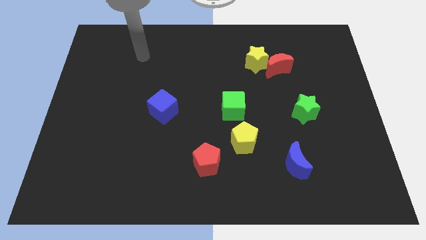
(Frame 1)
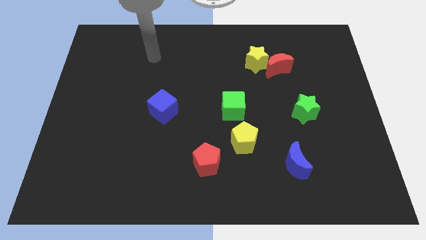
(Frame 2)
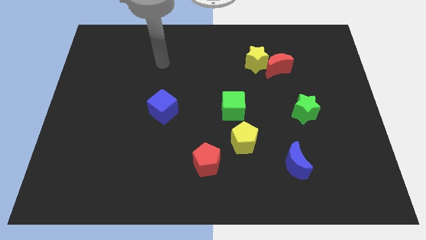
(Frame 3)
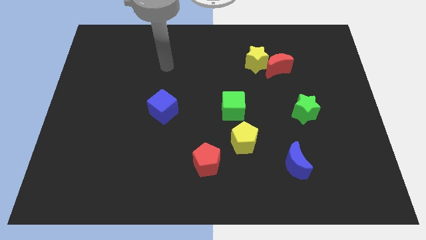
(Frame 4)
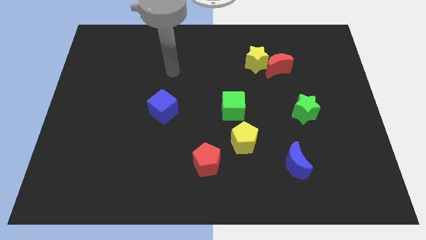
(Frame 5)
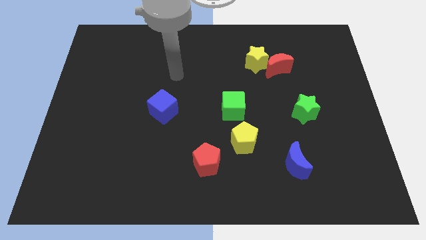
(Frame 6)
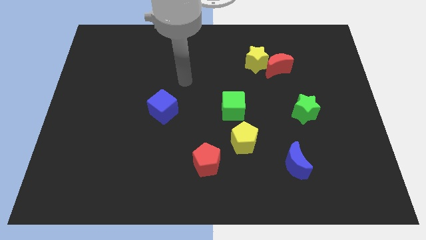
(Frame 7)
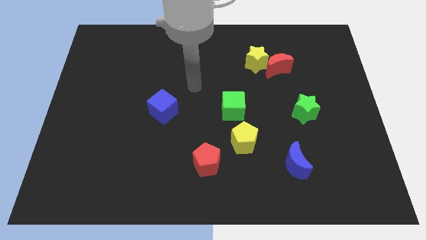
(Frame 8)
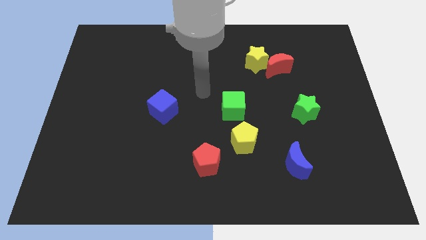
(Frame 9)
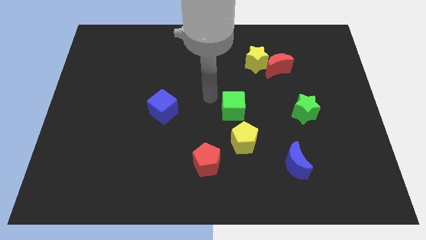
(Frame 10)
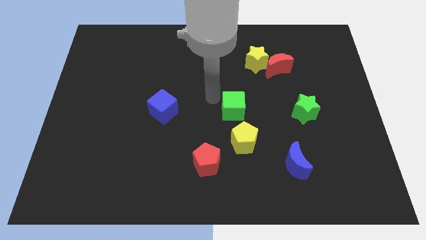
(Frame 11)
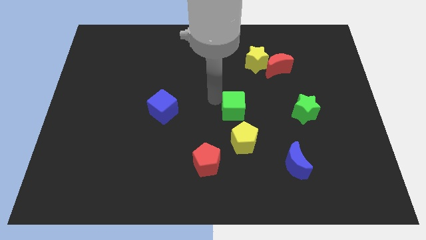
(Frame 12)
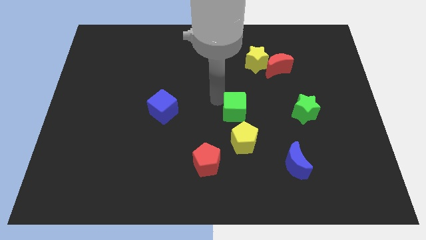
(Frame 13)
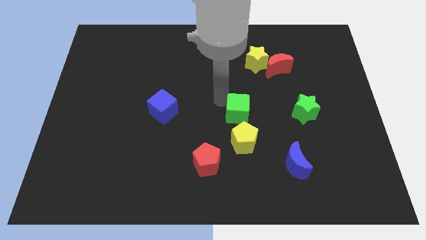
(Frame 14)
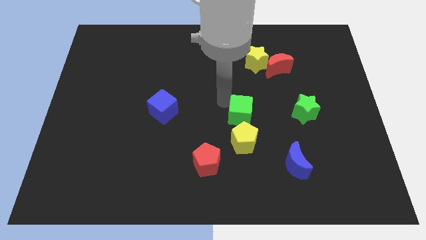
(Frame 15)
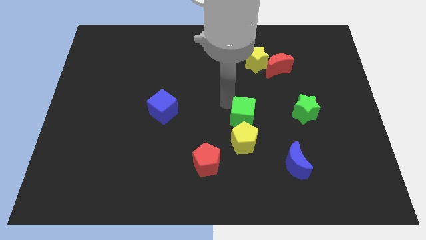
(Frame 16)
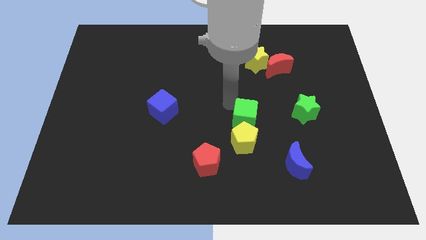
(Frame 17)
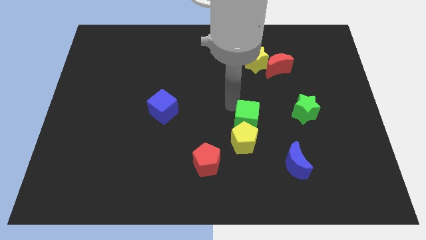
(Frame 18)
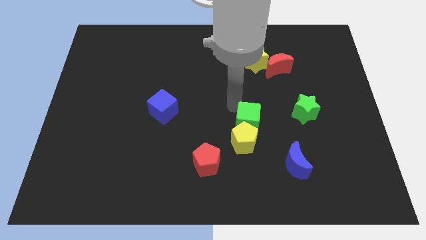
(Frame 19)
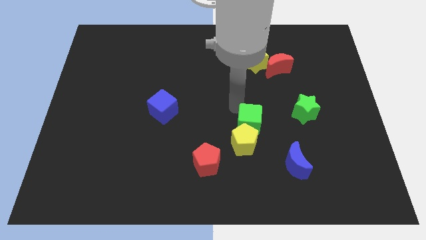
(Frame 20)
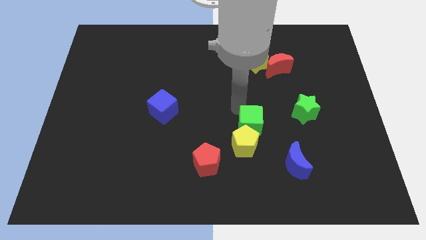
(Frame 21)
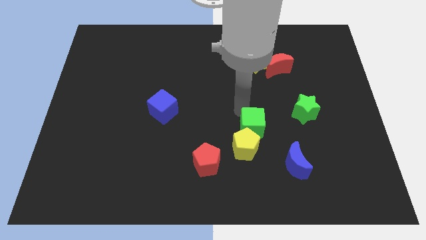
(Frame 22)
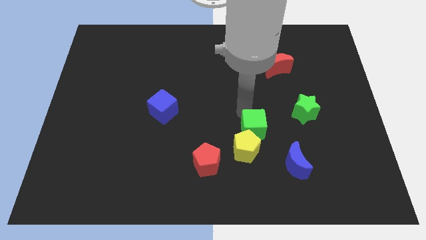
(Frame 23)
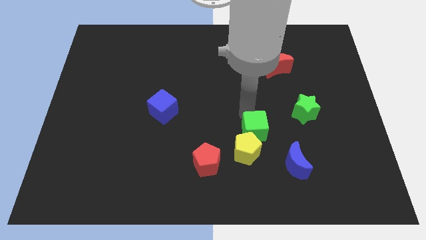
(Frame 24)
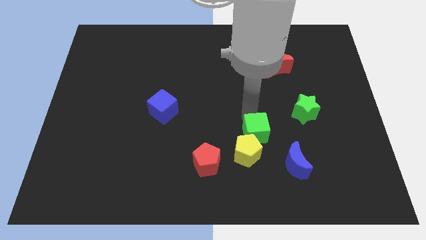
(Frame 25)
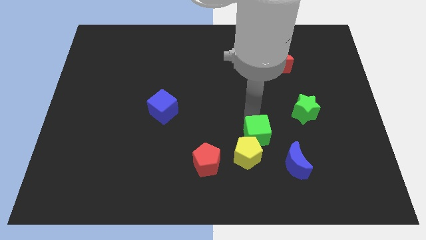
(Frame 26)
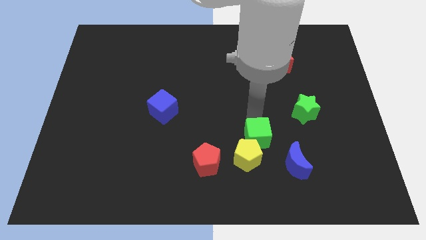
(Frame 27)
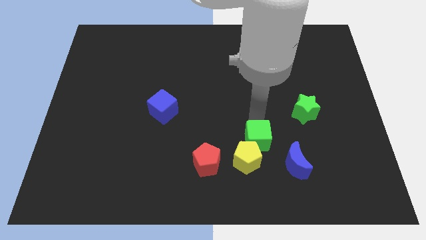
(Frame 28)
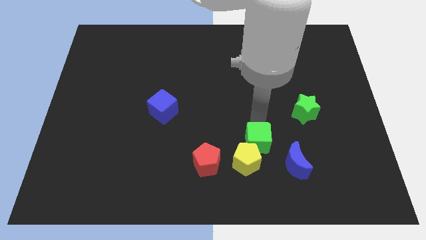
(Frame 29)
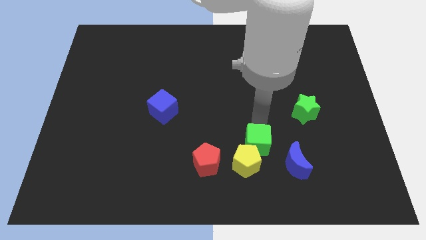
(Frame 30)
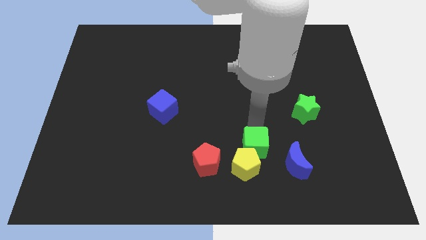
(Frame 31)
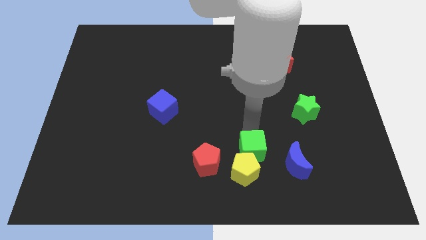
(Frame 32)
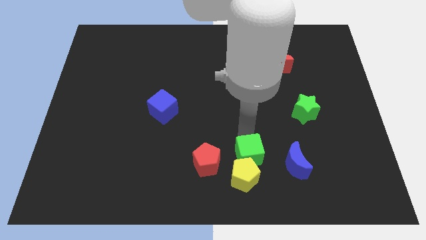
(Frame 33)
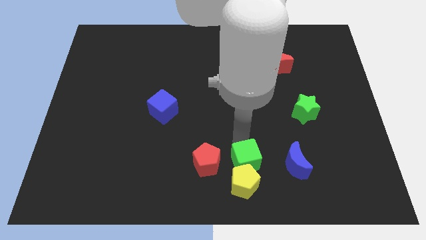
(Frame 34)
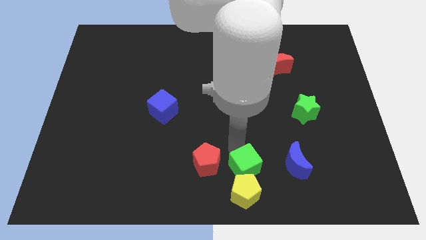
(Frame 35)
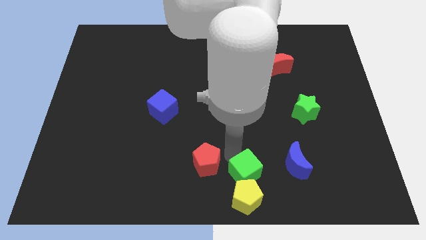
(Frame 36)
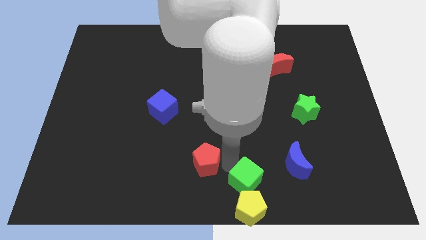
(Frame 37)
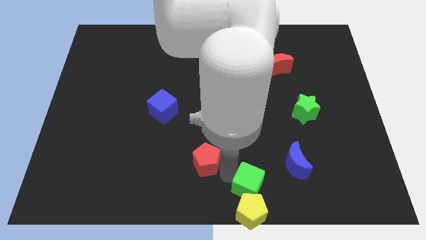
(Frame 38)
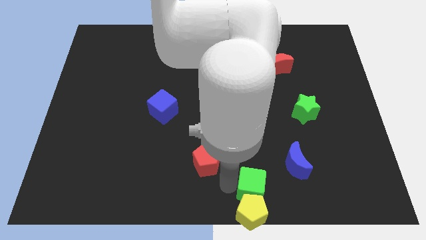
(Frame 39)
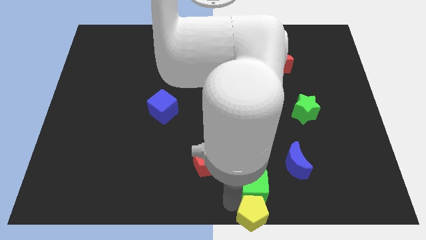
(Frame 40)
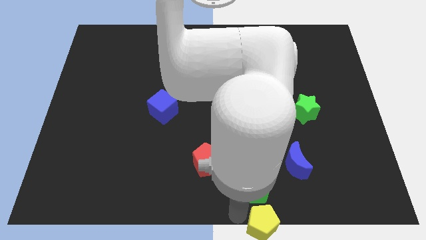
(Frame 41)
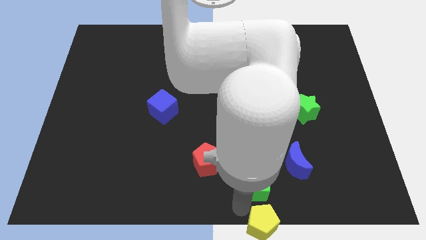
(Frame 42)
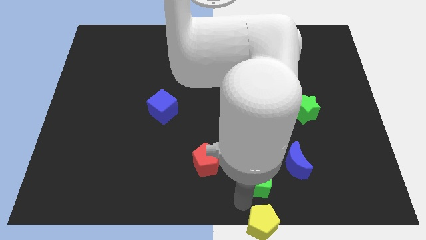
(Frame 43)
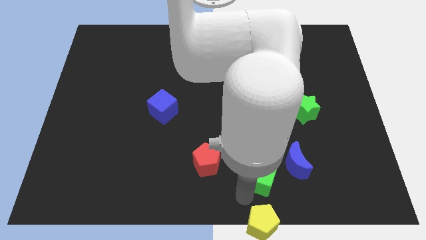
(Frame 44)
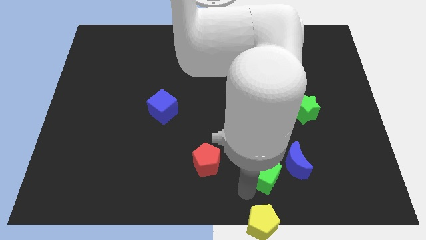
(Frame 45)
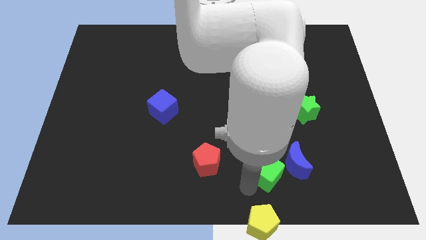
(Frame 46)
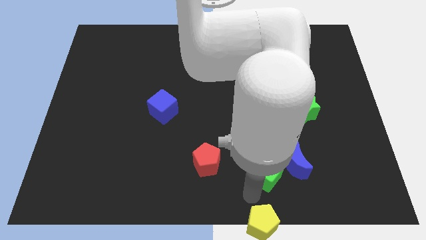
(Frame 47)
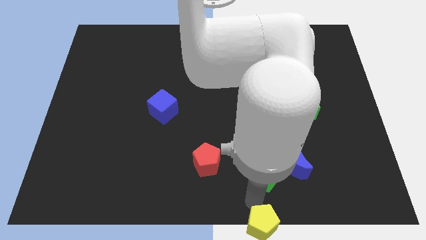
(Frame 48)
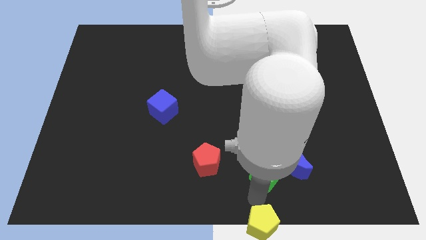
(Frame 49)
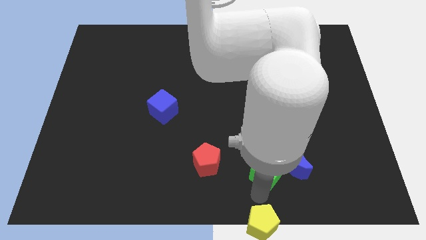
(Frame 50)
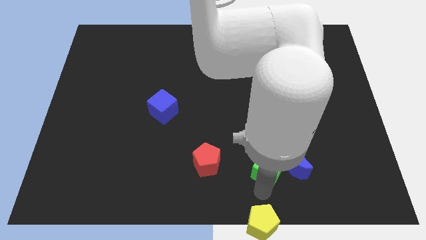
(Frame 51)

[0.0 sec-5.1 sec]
slide the green cube to the blue moon

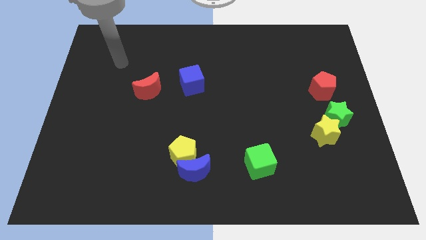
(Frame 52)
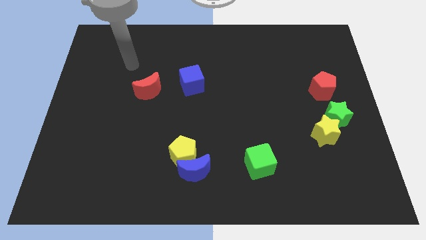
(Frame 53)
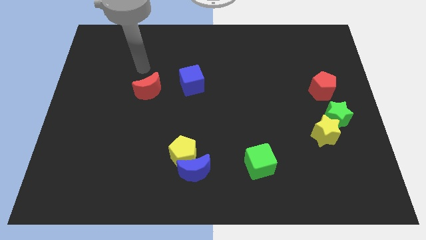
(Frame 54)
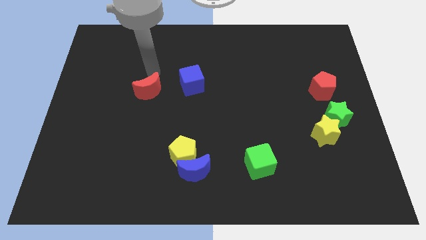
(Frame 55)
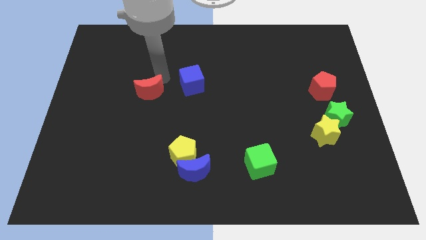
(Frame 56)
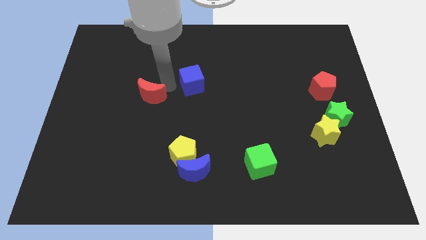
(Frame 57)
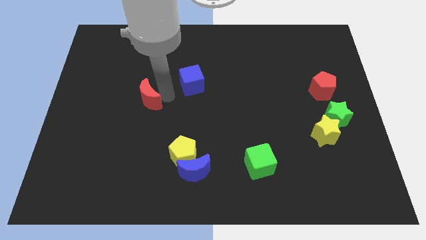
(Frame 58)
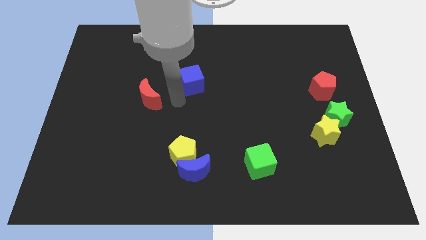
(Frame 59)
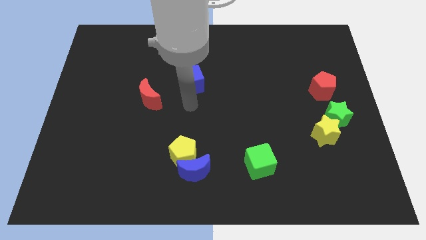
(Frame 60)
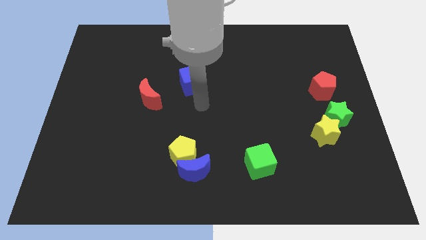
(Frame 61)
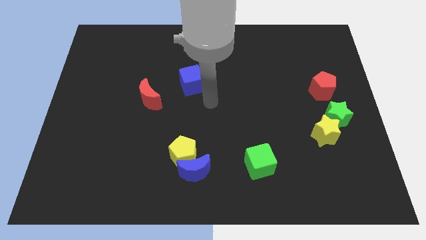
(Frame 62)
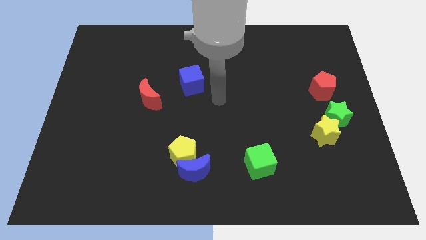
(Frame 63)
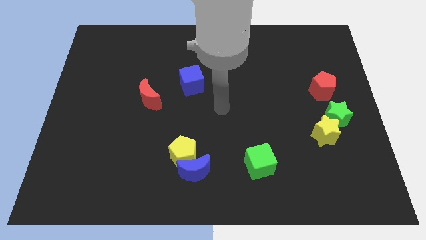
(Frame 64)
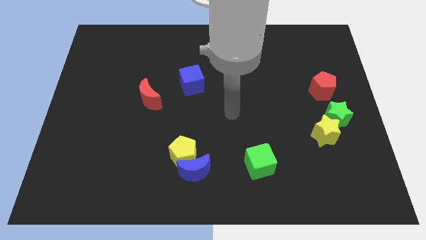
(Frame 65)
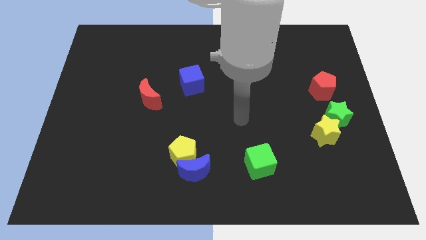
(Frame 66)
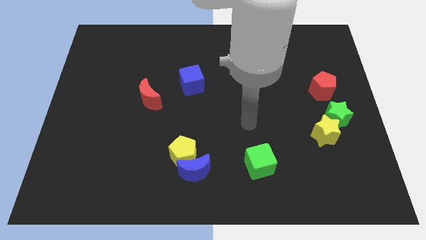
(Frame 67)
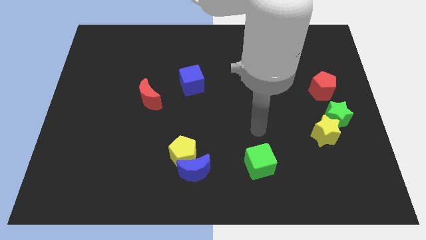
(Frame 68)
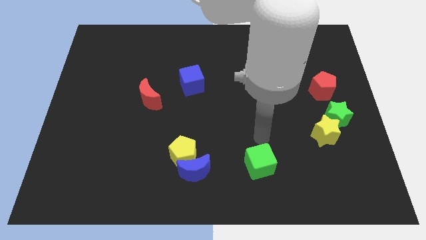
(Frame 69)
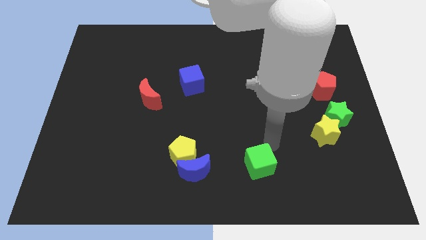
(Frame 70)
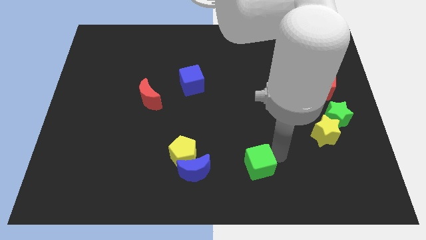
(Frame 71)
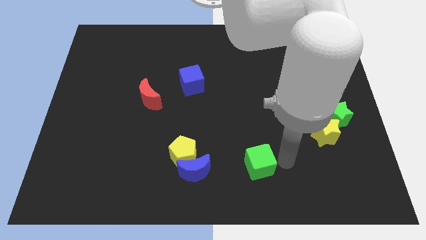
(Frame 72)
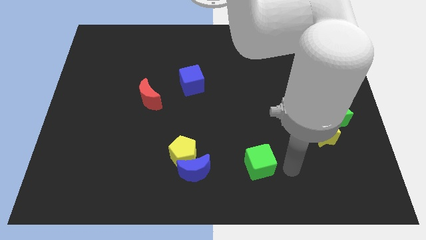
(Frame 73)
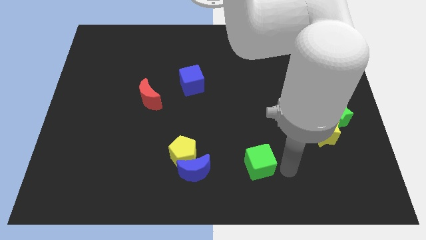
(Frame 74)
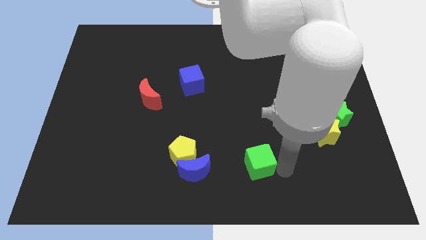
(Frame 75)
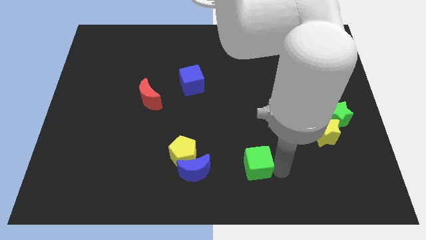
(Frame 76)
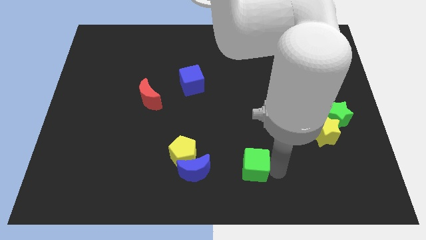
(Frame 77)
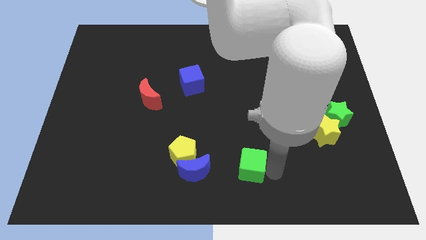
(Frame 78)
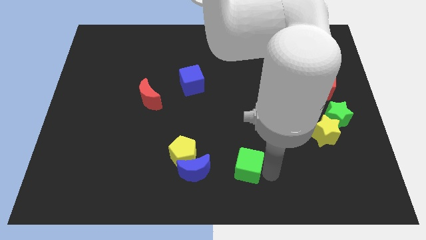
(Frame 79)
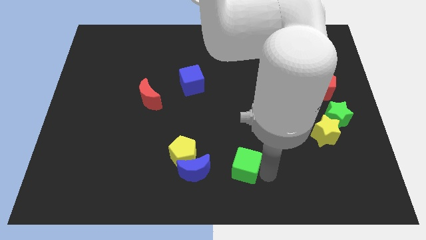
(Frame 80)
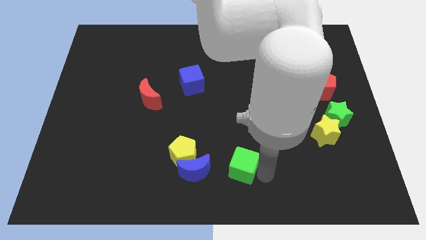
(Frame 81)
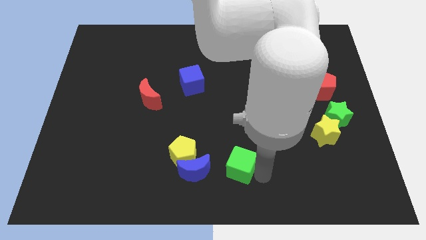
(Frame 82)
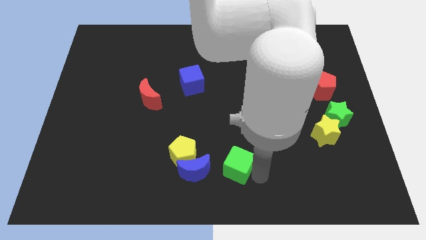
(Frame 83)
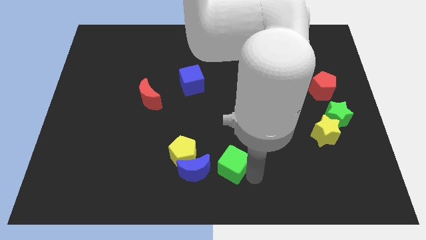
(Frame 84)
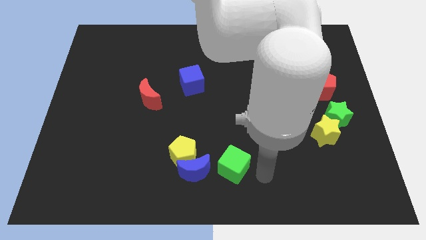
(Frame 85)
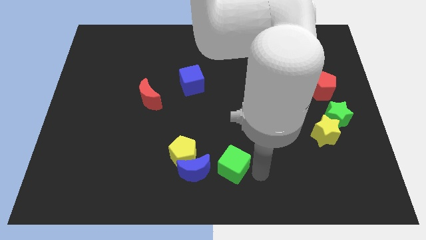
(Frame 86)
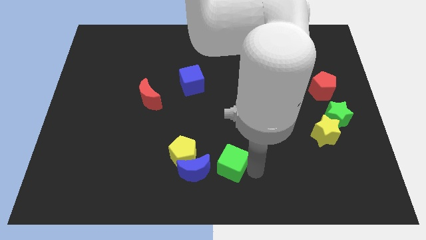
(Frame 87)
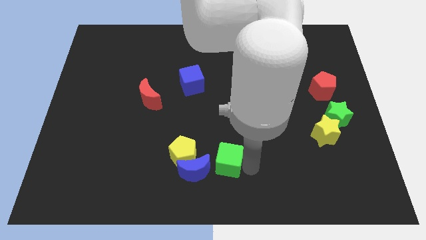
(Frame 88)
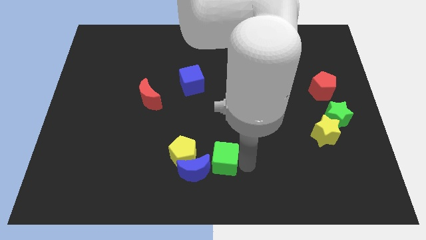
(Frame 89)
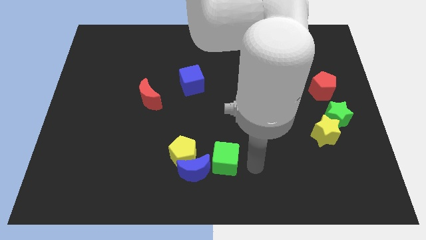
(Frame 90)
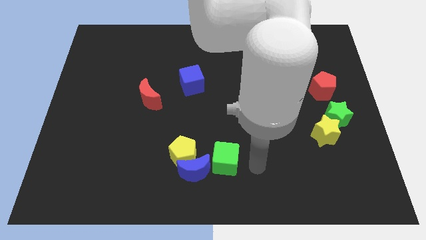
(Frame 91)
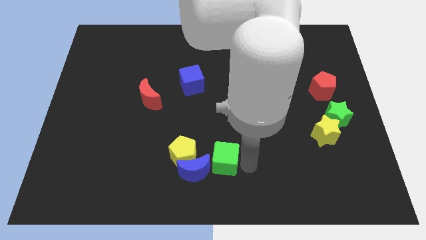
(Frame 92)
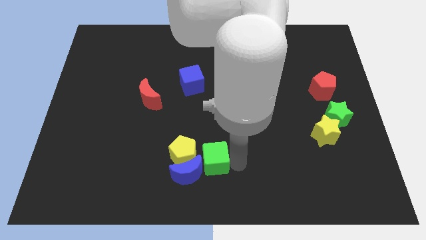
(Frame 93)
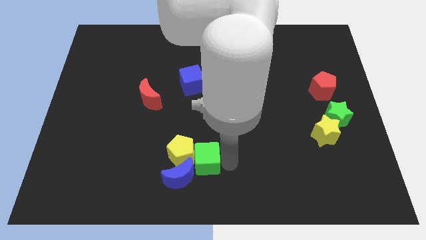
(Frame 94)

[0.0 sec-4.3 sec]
put the green cube towards the yellow pentagon
